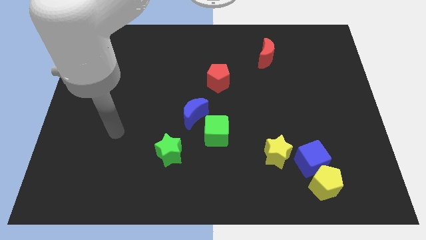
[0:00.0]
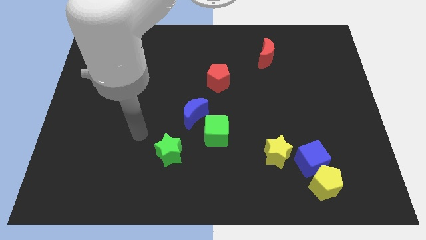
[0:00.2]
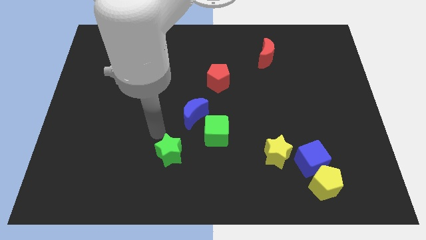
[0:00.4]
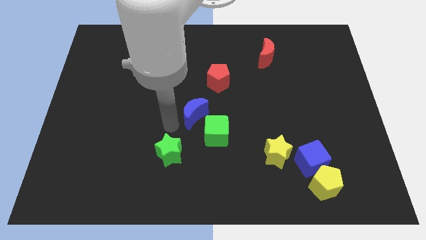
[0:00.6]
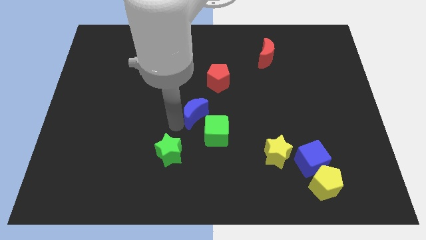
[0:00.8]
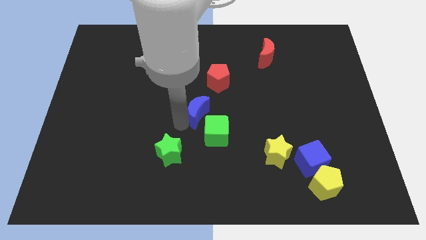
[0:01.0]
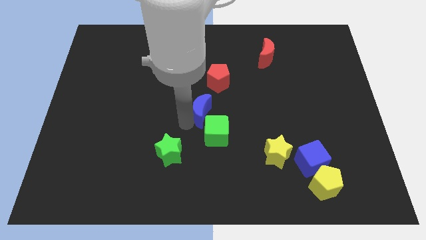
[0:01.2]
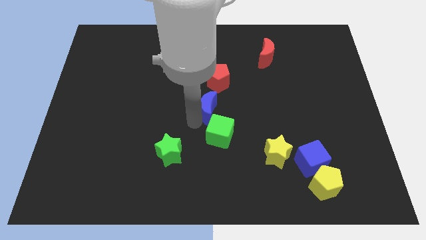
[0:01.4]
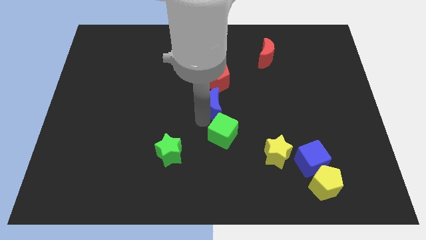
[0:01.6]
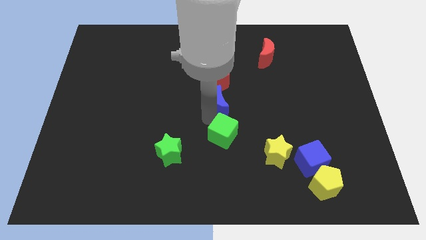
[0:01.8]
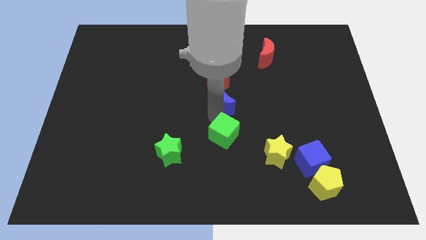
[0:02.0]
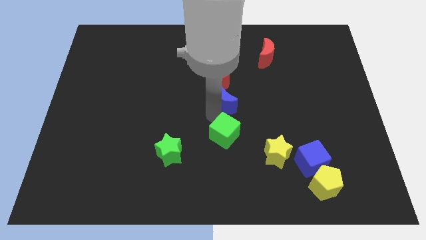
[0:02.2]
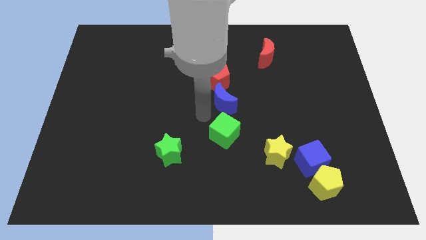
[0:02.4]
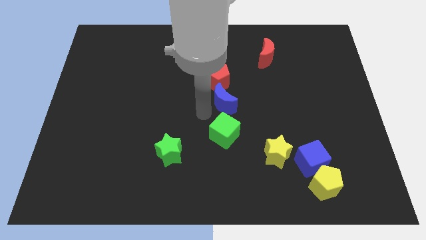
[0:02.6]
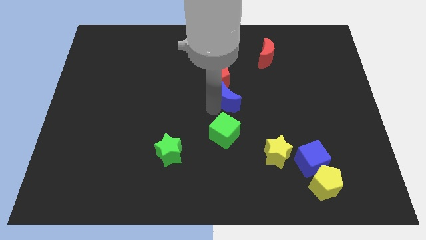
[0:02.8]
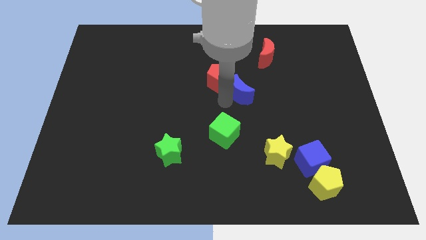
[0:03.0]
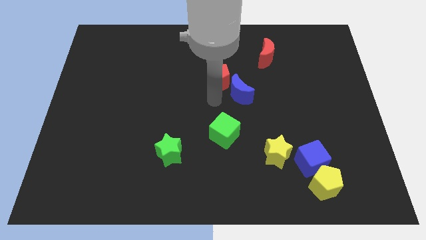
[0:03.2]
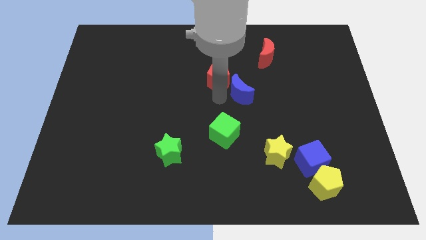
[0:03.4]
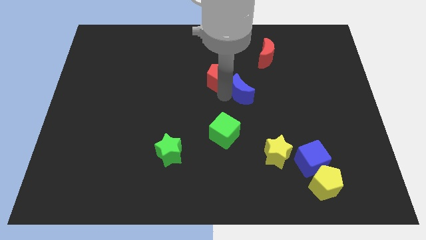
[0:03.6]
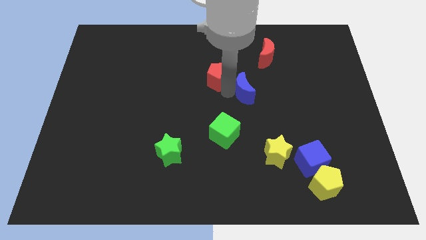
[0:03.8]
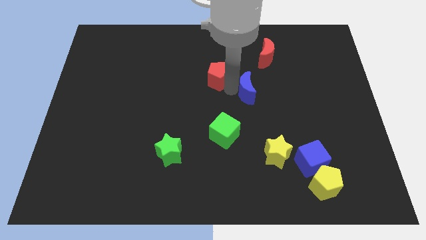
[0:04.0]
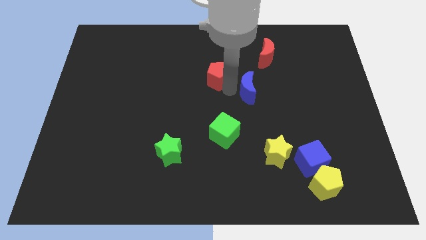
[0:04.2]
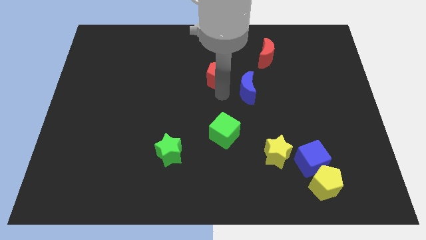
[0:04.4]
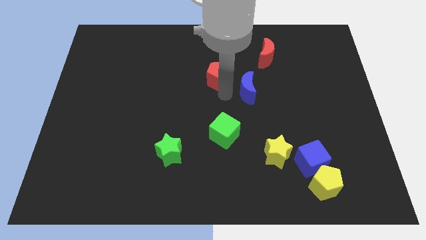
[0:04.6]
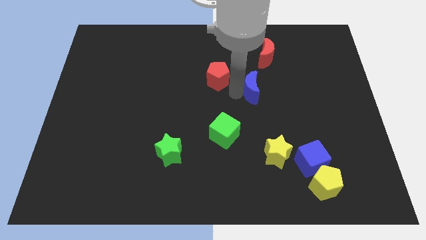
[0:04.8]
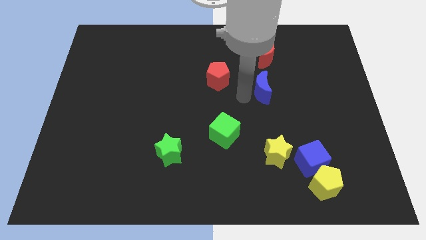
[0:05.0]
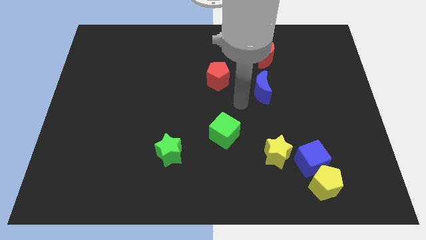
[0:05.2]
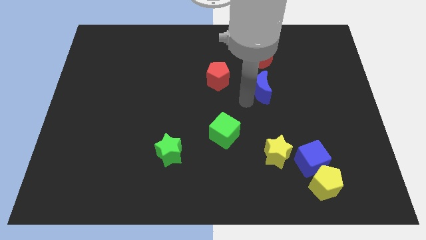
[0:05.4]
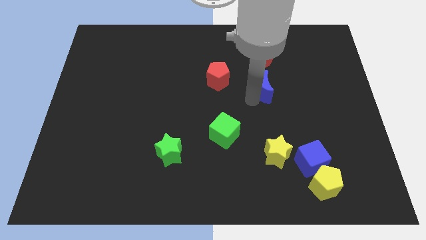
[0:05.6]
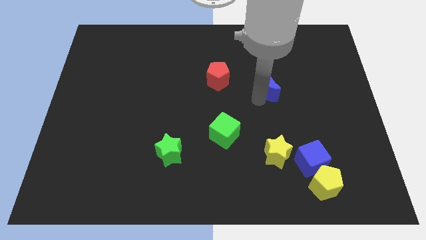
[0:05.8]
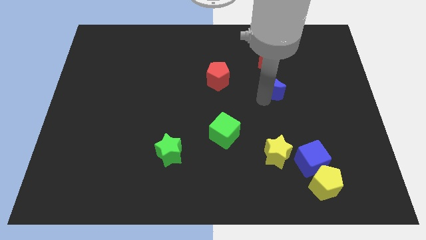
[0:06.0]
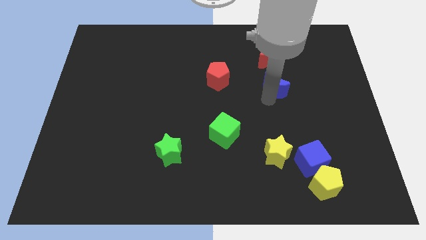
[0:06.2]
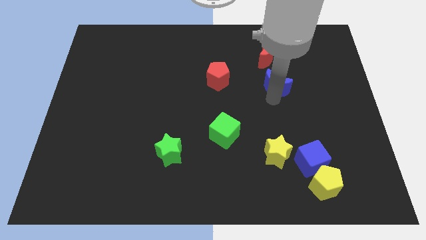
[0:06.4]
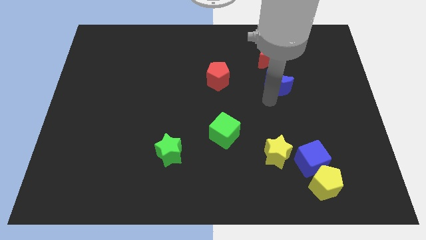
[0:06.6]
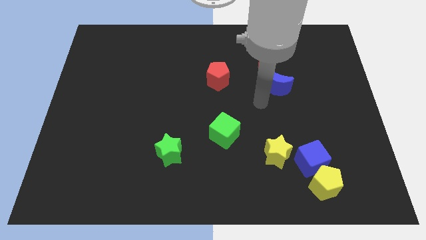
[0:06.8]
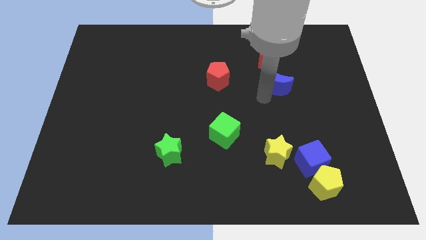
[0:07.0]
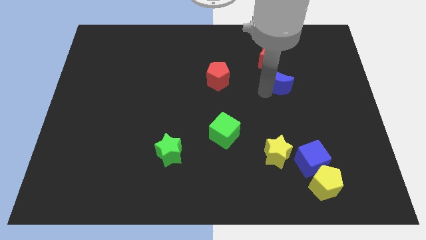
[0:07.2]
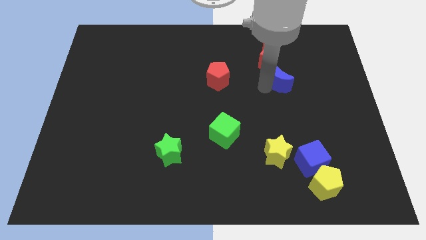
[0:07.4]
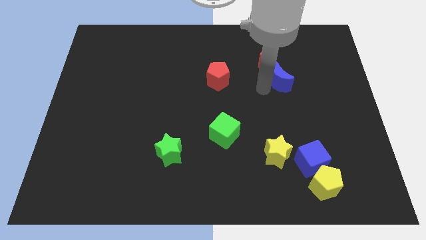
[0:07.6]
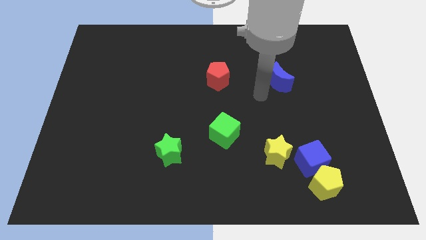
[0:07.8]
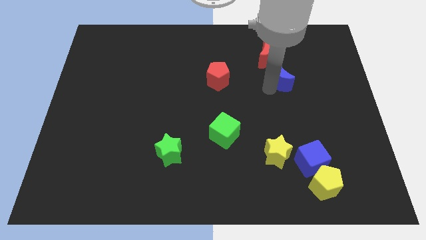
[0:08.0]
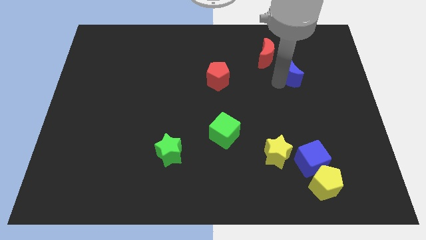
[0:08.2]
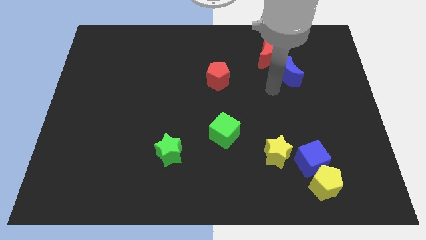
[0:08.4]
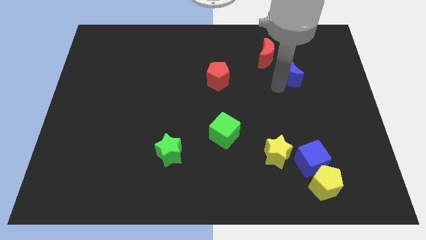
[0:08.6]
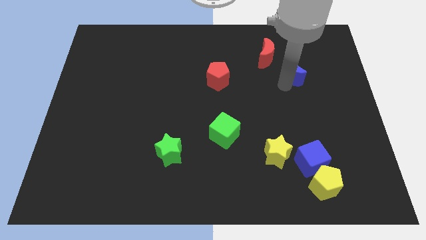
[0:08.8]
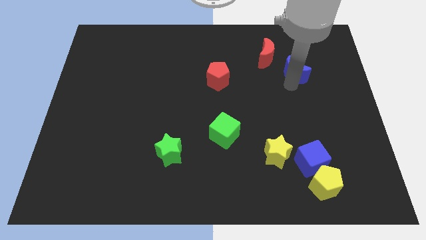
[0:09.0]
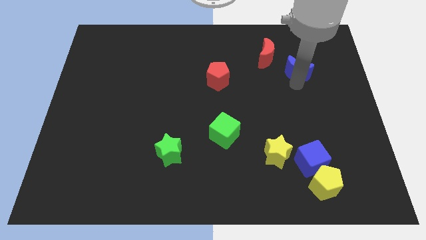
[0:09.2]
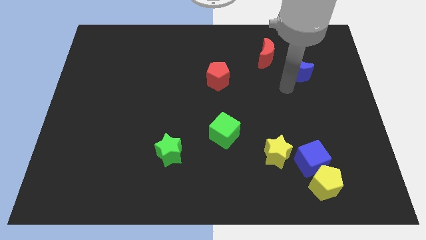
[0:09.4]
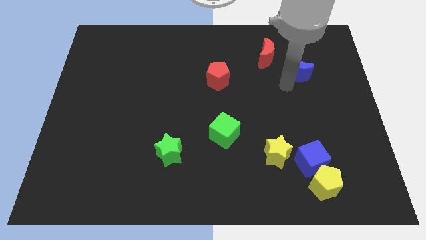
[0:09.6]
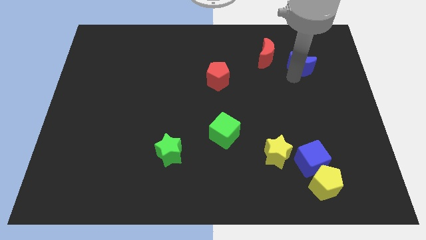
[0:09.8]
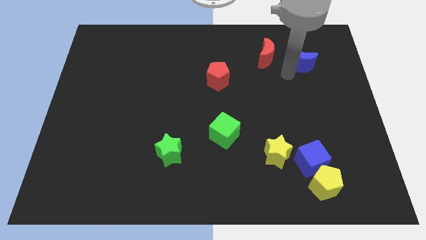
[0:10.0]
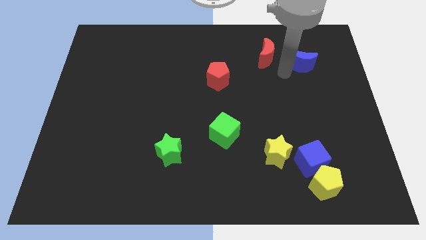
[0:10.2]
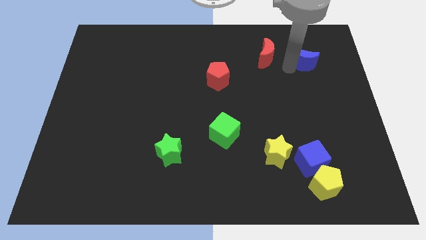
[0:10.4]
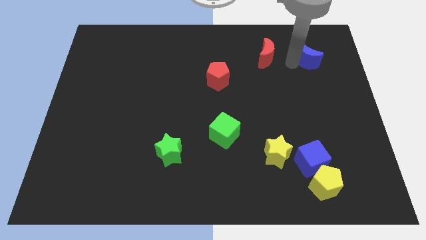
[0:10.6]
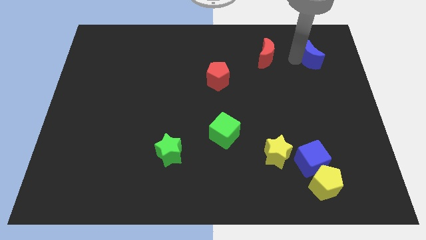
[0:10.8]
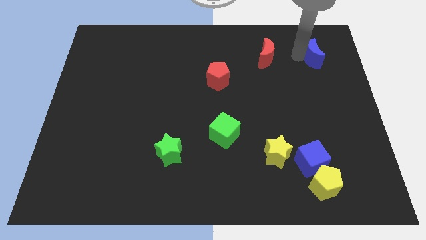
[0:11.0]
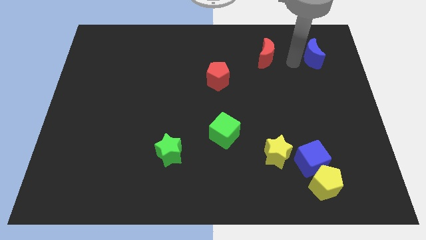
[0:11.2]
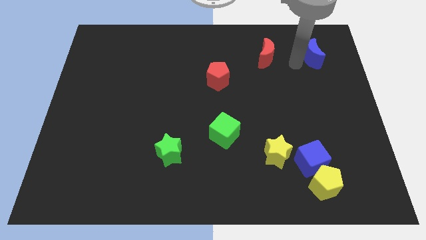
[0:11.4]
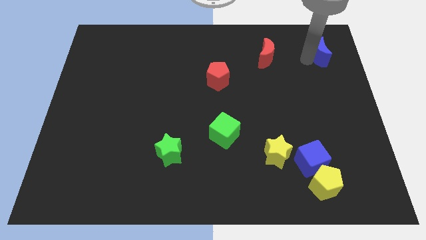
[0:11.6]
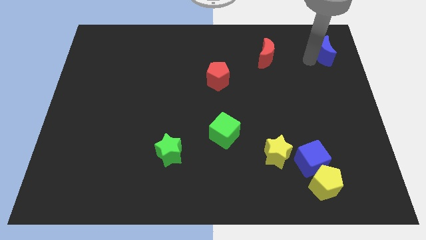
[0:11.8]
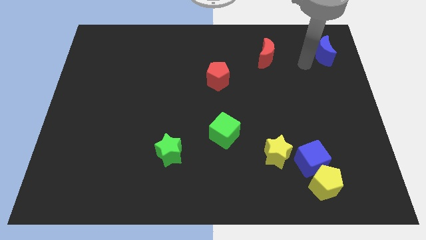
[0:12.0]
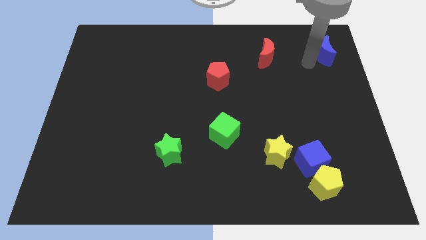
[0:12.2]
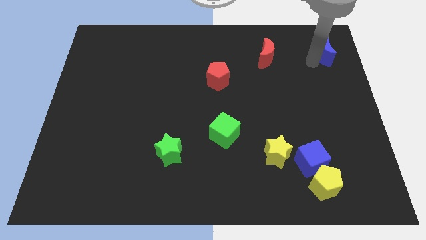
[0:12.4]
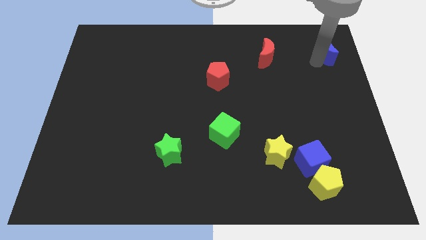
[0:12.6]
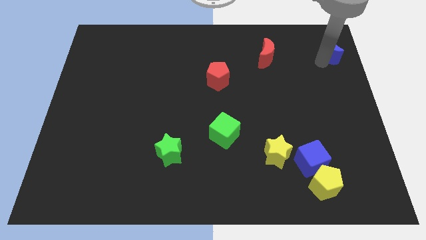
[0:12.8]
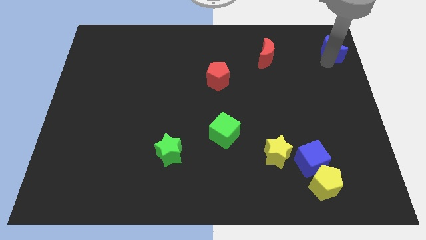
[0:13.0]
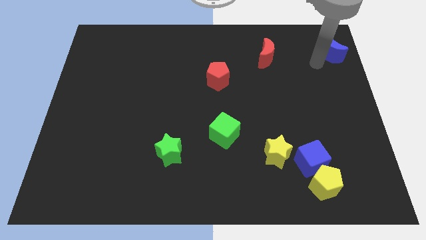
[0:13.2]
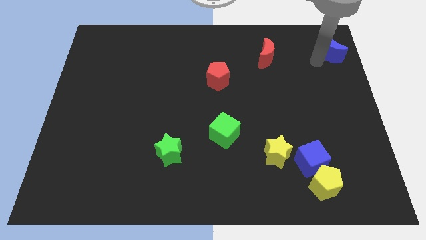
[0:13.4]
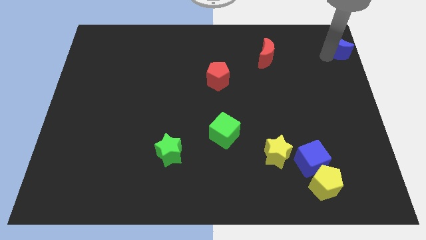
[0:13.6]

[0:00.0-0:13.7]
push the blue moon to the top right of the board
